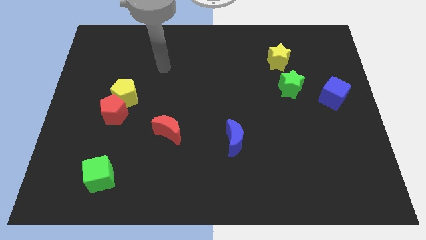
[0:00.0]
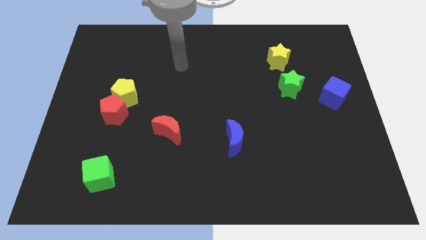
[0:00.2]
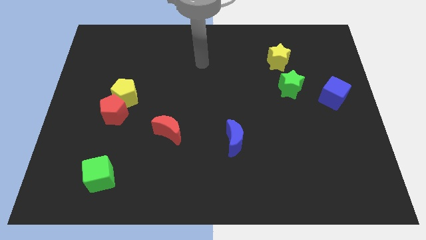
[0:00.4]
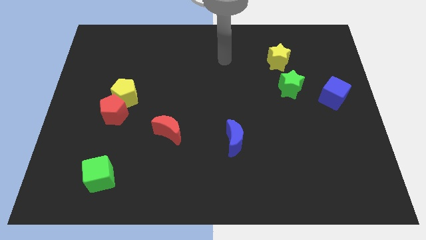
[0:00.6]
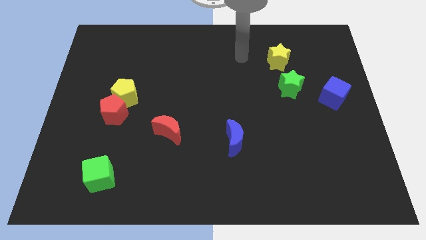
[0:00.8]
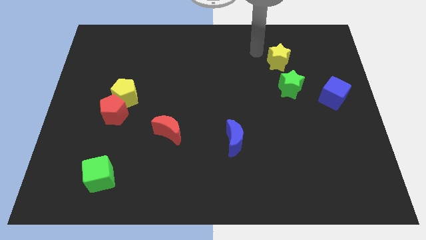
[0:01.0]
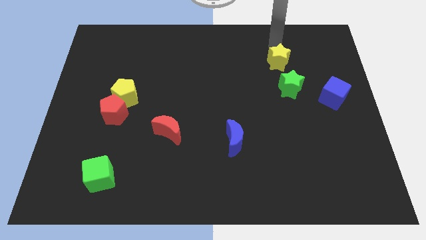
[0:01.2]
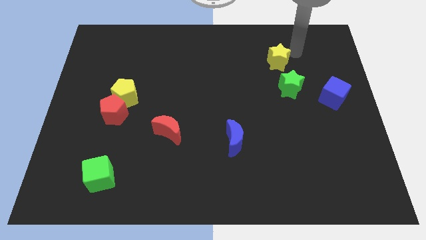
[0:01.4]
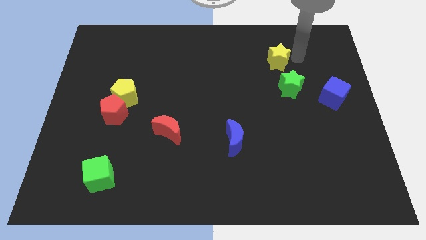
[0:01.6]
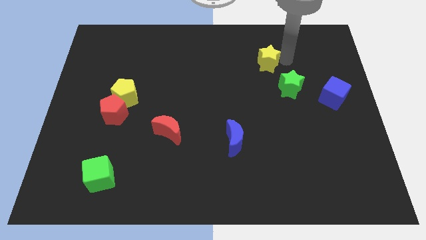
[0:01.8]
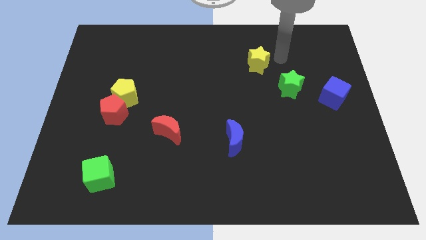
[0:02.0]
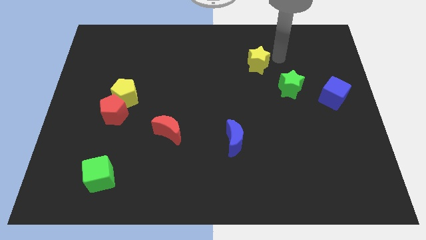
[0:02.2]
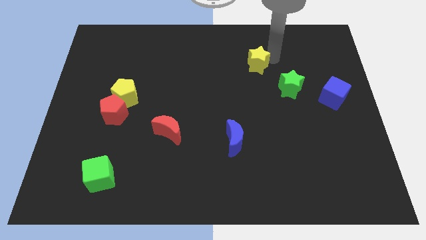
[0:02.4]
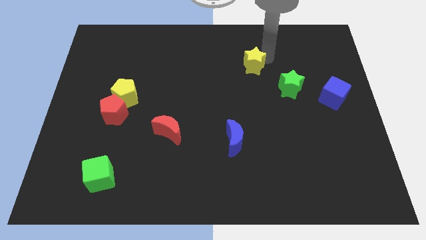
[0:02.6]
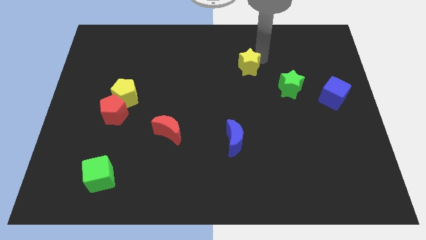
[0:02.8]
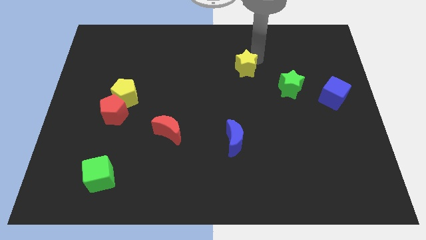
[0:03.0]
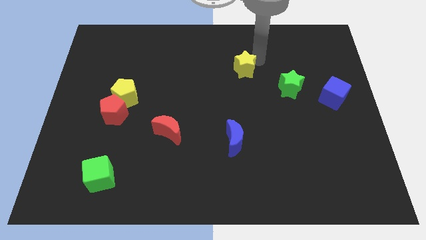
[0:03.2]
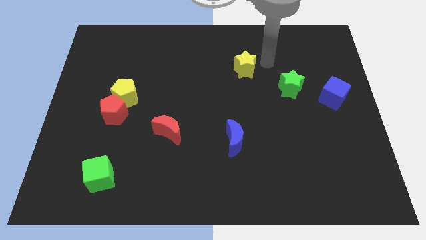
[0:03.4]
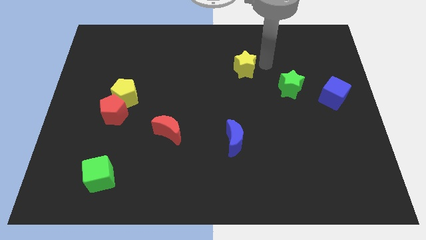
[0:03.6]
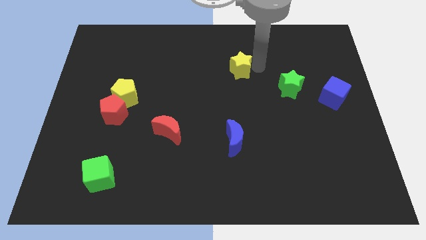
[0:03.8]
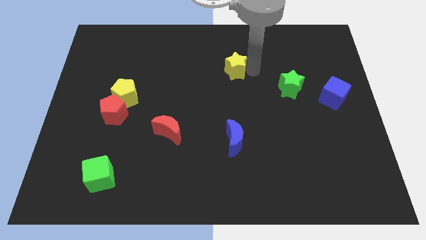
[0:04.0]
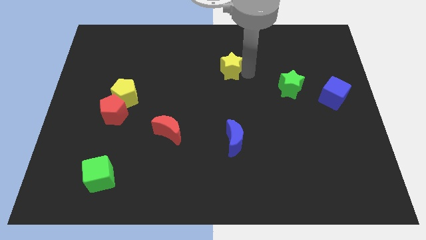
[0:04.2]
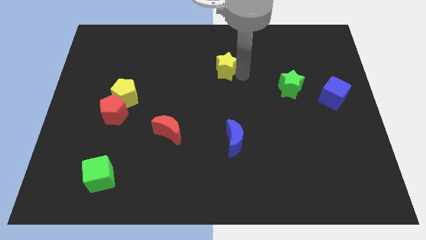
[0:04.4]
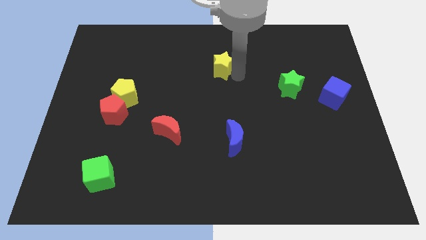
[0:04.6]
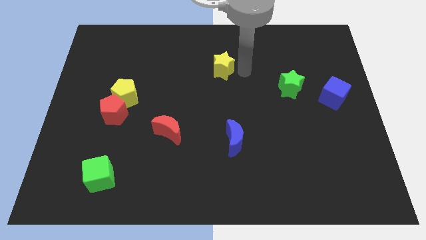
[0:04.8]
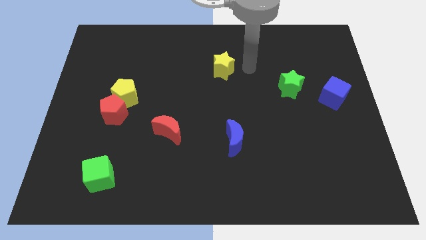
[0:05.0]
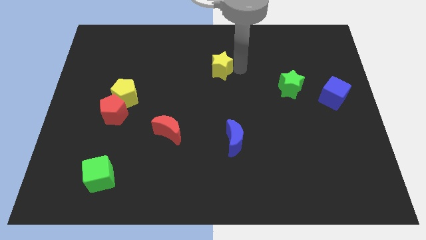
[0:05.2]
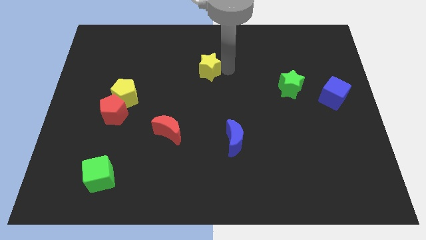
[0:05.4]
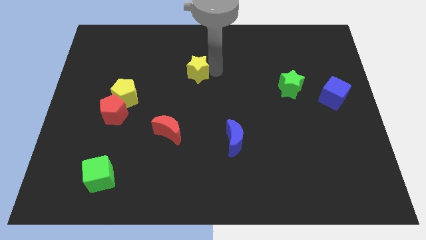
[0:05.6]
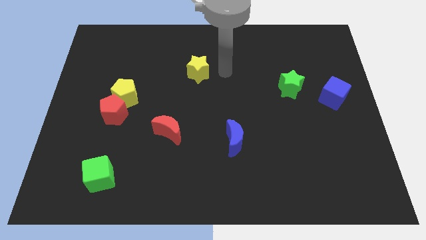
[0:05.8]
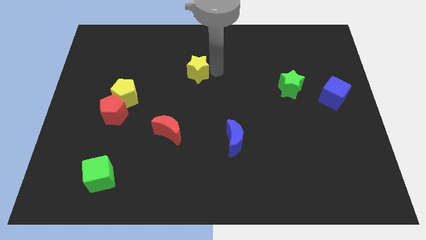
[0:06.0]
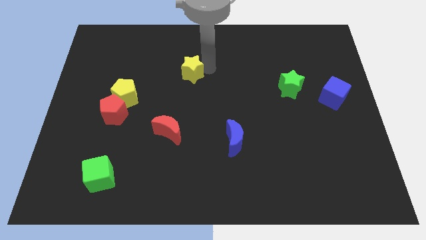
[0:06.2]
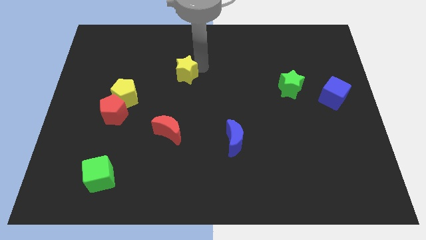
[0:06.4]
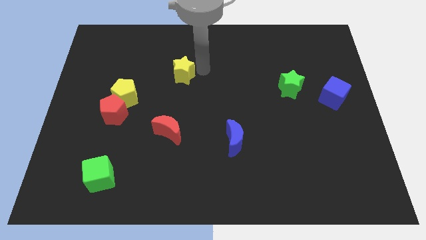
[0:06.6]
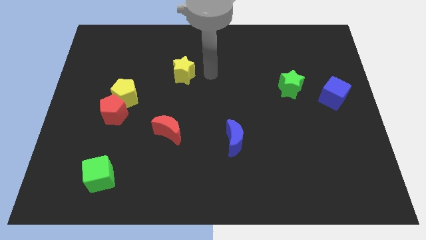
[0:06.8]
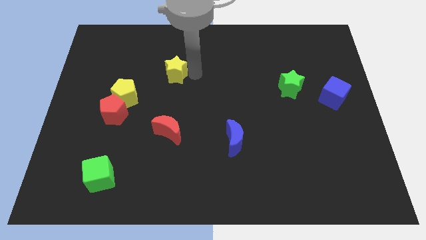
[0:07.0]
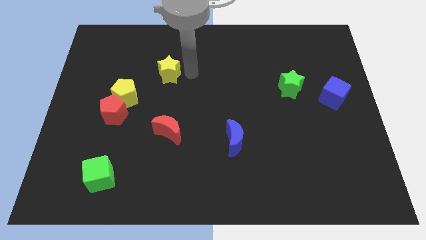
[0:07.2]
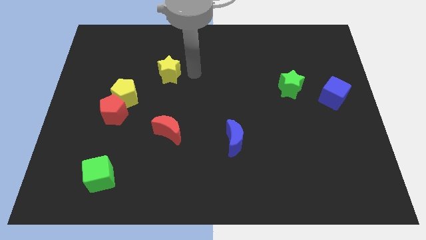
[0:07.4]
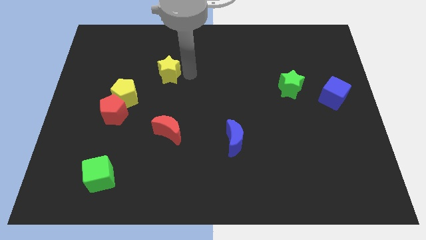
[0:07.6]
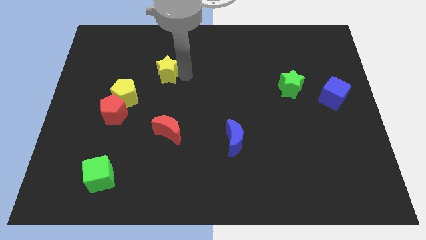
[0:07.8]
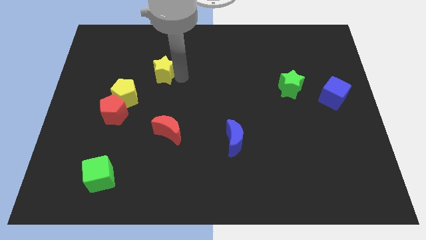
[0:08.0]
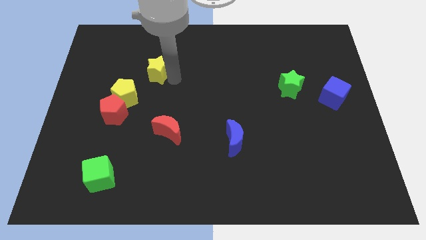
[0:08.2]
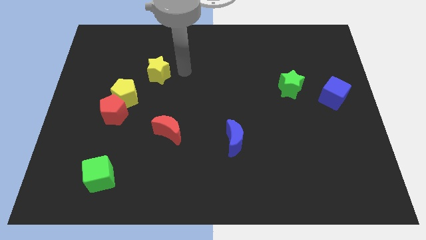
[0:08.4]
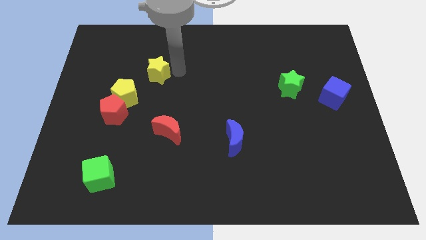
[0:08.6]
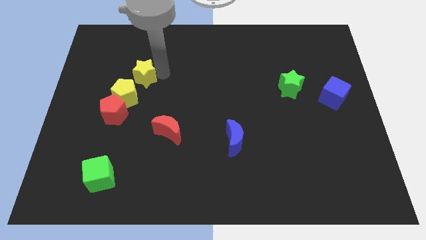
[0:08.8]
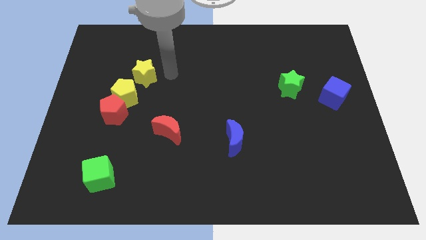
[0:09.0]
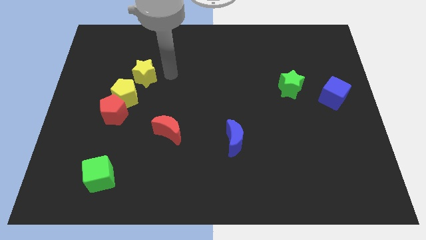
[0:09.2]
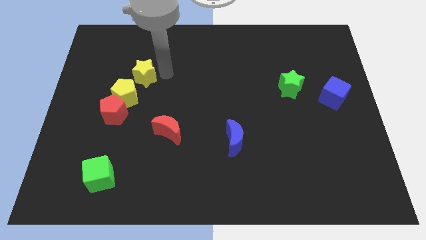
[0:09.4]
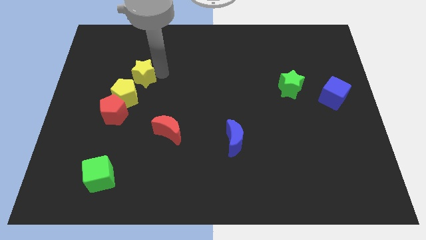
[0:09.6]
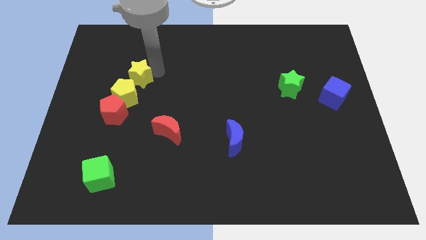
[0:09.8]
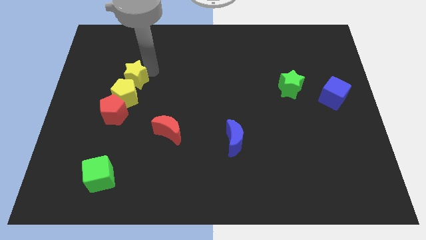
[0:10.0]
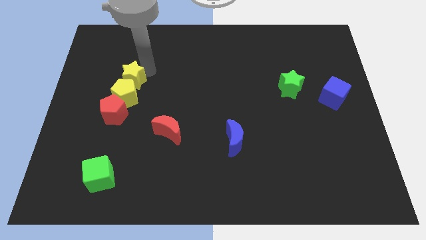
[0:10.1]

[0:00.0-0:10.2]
slide the yellow star diagonally up and to the left of the yellow pentagon

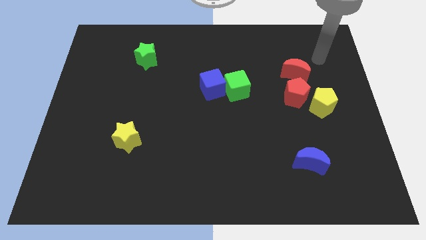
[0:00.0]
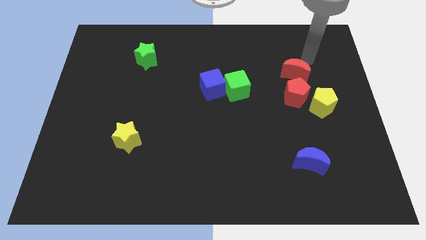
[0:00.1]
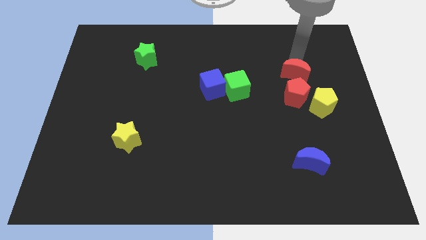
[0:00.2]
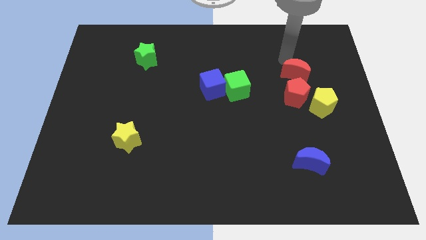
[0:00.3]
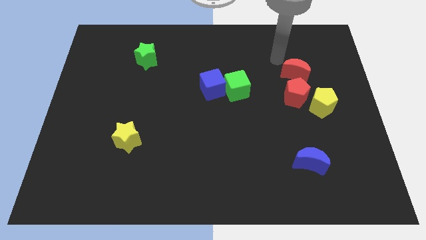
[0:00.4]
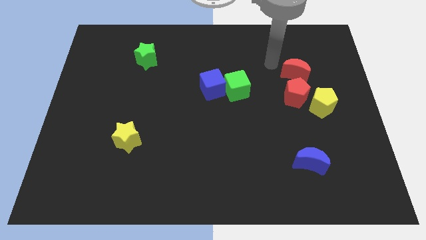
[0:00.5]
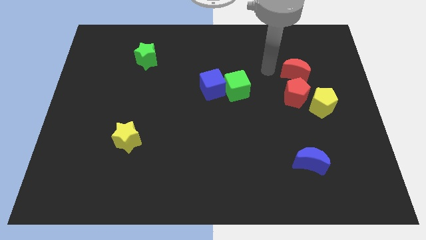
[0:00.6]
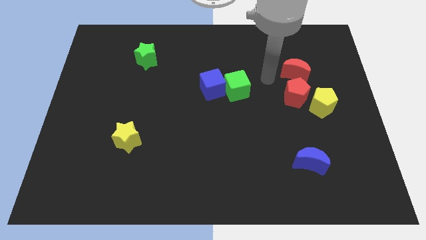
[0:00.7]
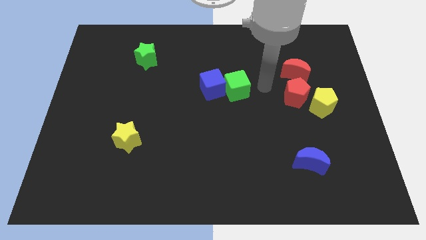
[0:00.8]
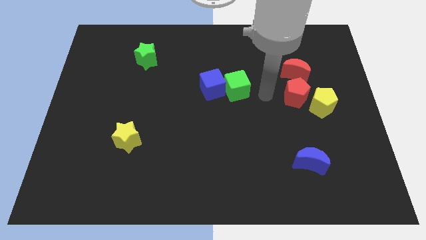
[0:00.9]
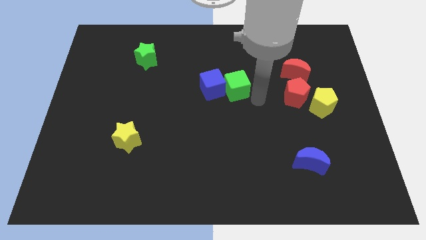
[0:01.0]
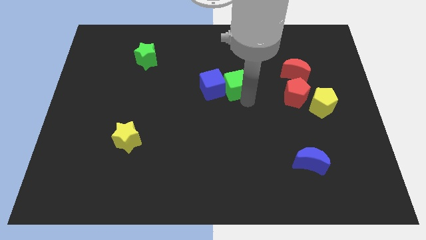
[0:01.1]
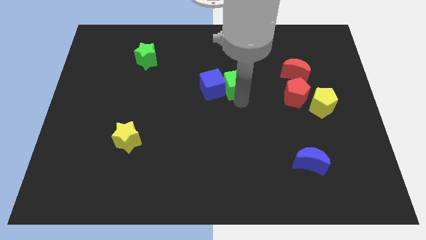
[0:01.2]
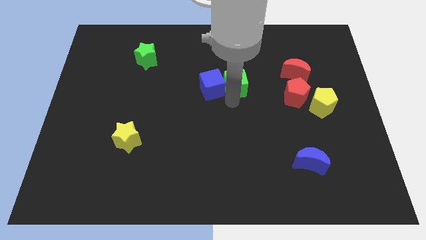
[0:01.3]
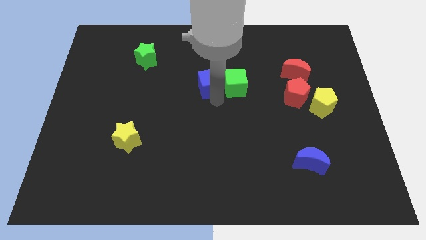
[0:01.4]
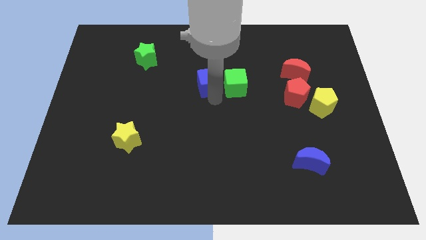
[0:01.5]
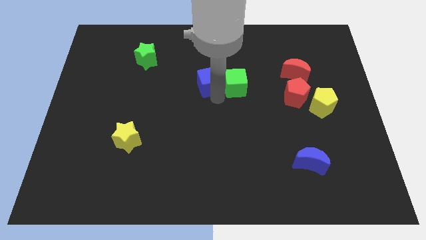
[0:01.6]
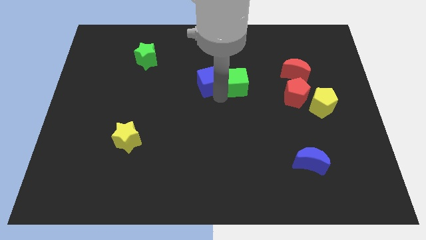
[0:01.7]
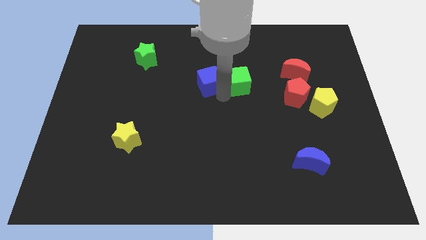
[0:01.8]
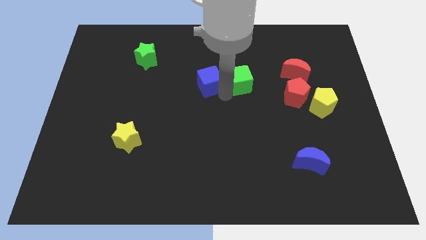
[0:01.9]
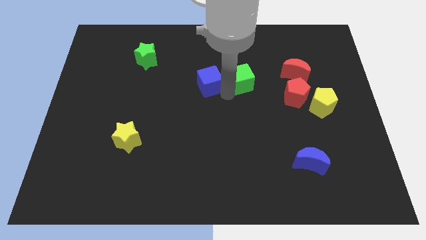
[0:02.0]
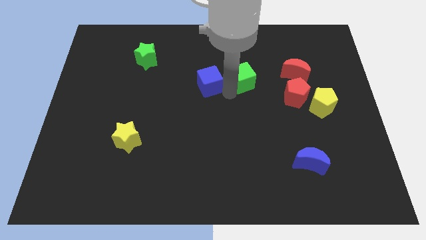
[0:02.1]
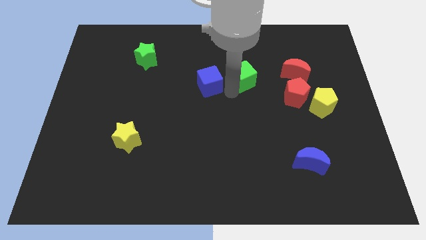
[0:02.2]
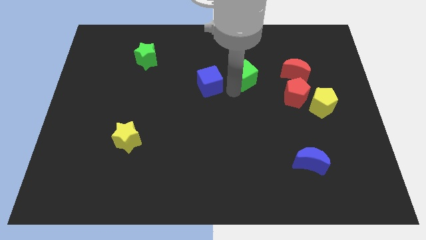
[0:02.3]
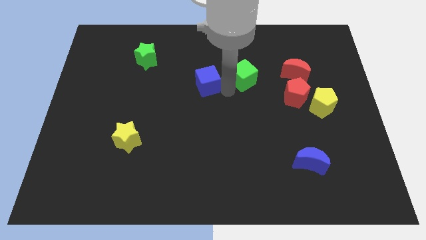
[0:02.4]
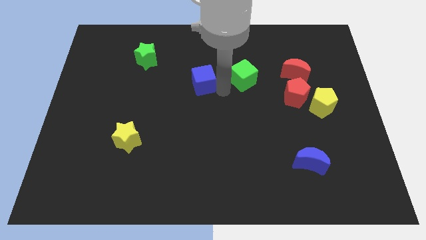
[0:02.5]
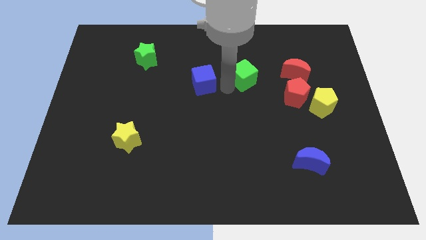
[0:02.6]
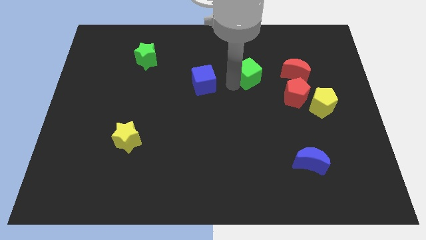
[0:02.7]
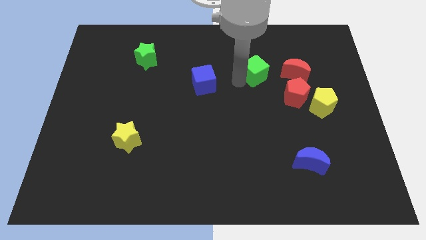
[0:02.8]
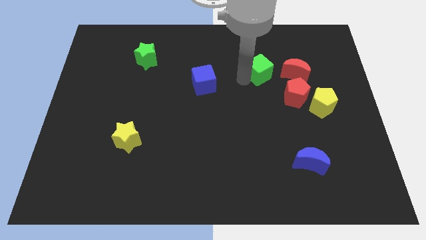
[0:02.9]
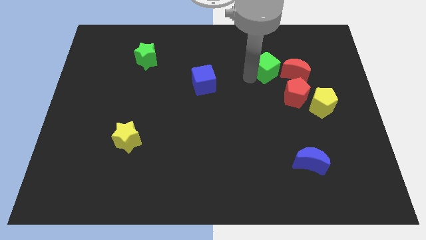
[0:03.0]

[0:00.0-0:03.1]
slide the green cube to the top left of the red moon
